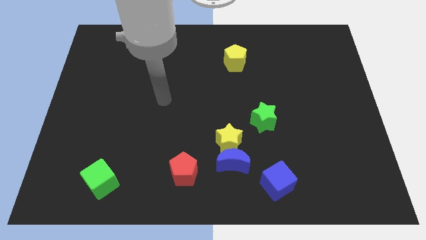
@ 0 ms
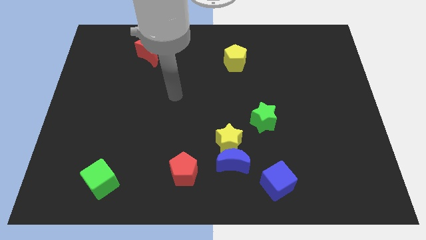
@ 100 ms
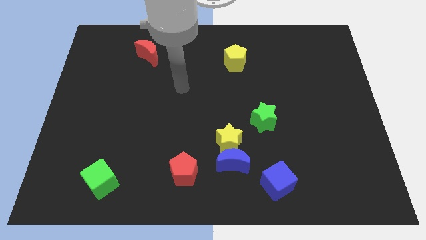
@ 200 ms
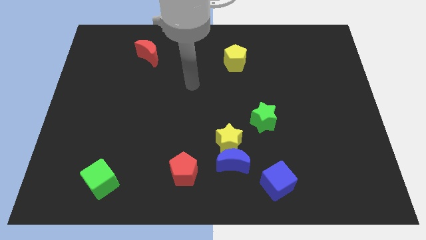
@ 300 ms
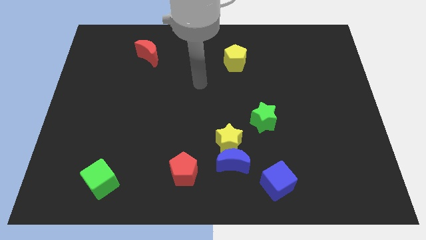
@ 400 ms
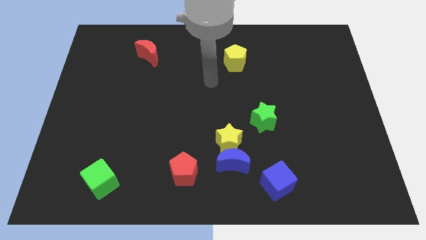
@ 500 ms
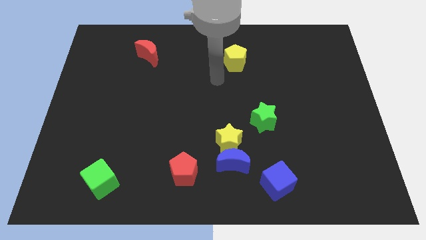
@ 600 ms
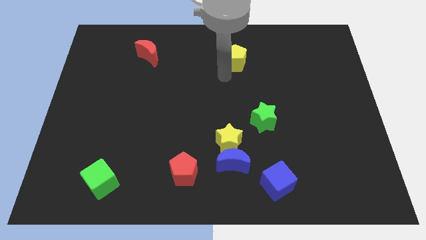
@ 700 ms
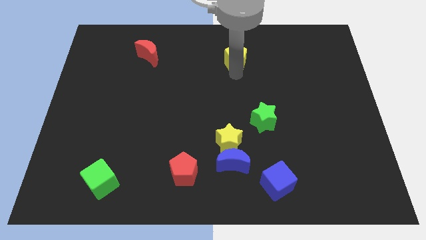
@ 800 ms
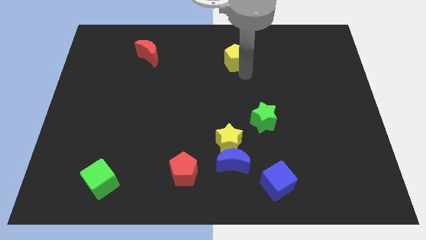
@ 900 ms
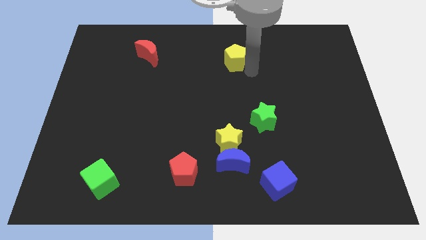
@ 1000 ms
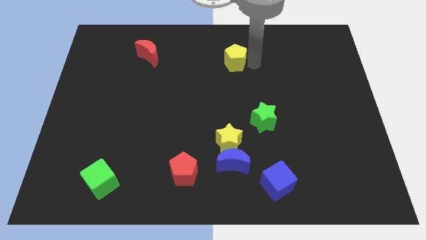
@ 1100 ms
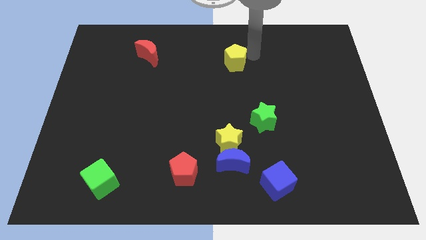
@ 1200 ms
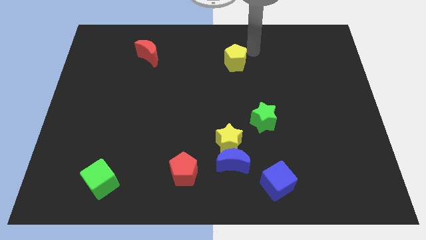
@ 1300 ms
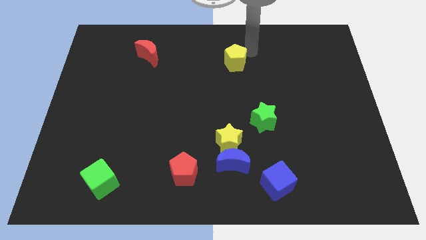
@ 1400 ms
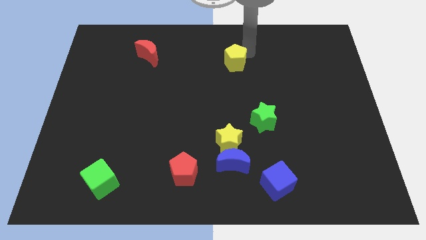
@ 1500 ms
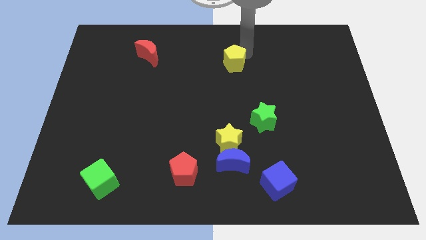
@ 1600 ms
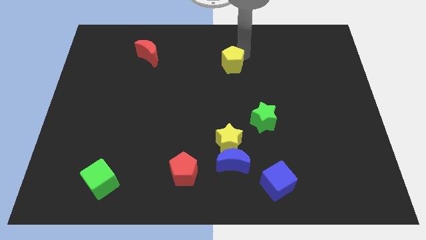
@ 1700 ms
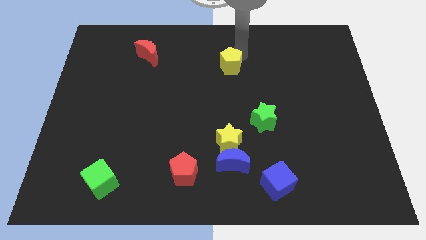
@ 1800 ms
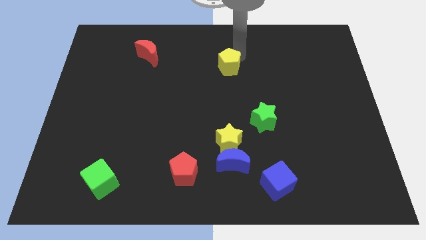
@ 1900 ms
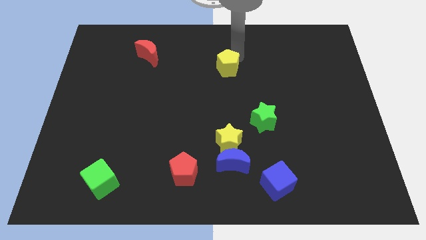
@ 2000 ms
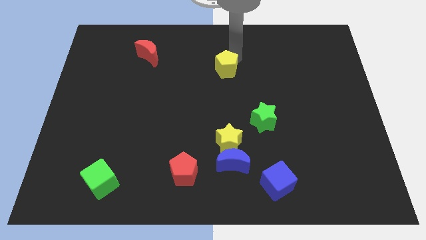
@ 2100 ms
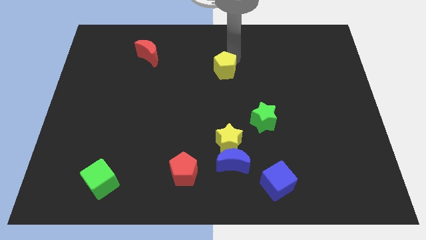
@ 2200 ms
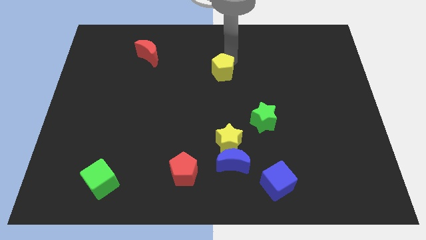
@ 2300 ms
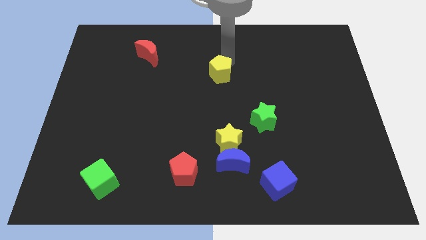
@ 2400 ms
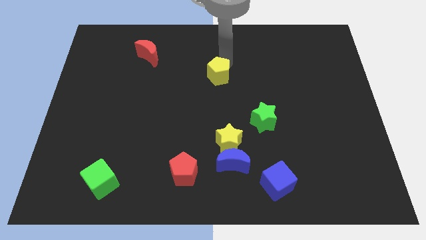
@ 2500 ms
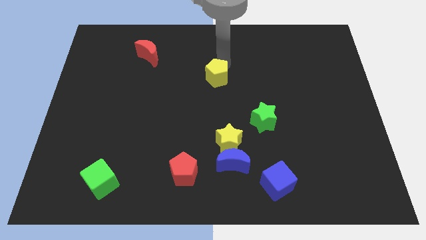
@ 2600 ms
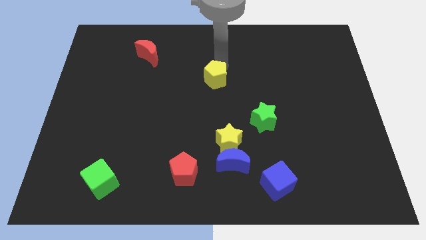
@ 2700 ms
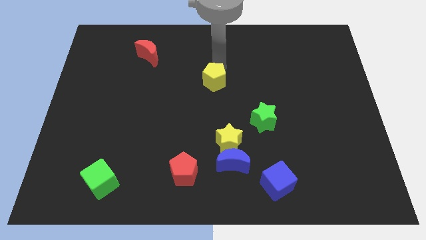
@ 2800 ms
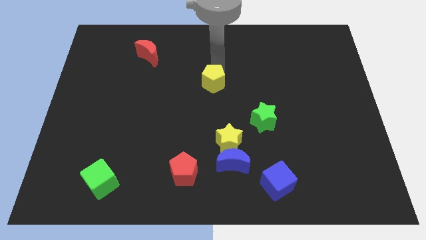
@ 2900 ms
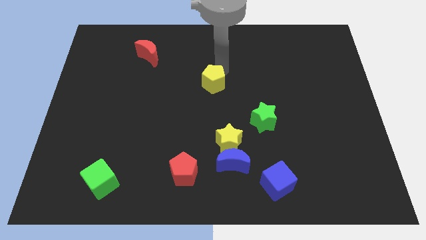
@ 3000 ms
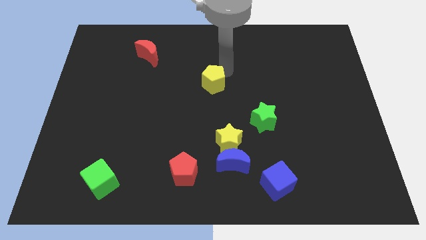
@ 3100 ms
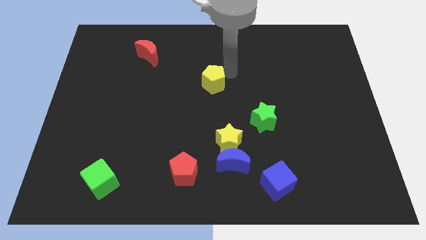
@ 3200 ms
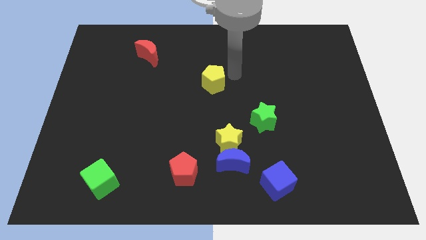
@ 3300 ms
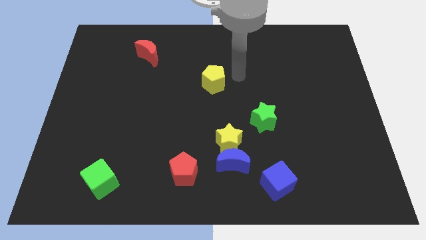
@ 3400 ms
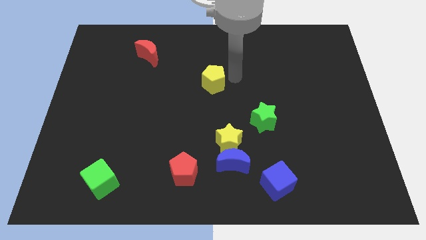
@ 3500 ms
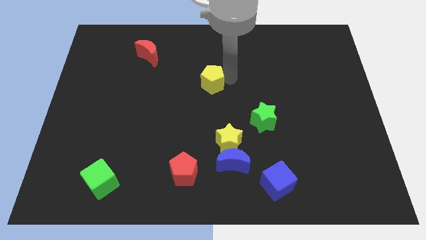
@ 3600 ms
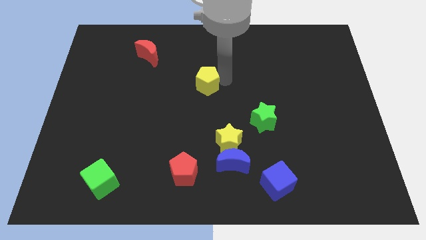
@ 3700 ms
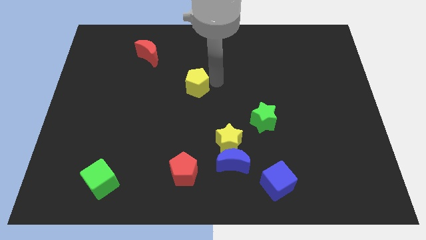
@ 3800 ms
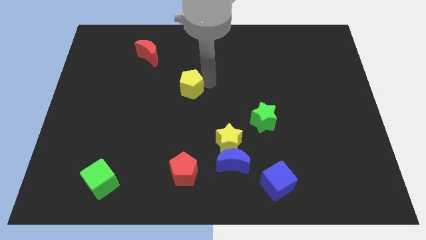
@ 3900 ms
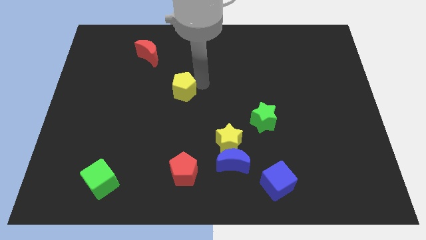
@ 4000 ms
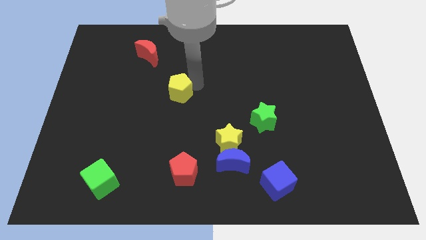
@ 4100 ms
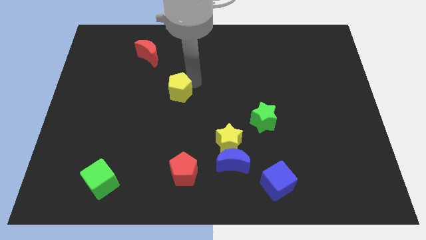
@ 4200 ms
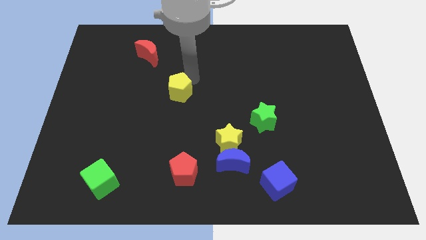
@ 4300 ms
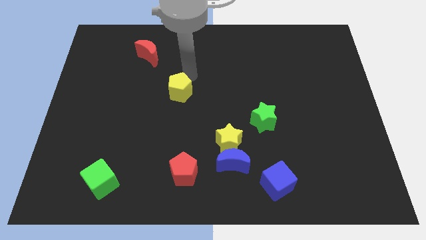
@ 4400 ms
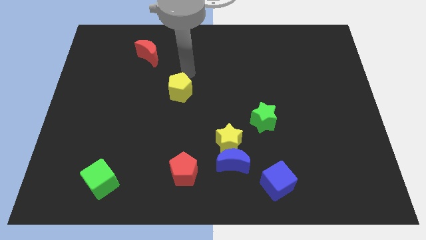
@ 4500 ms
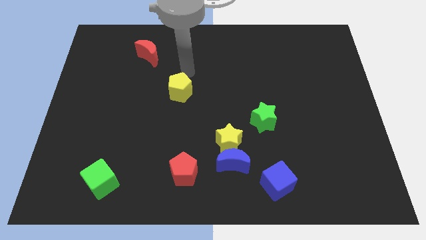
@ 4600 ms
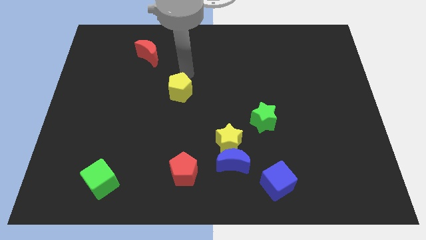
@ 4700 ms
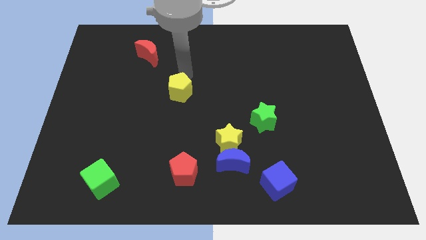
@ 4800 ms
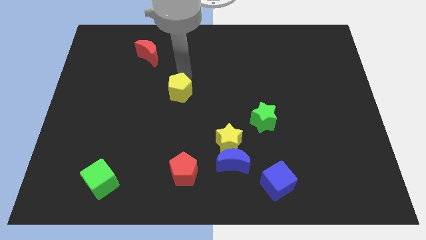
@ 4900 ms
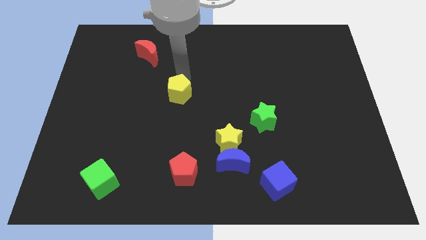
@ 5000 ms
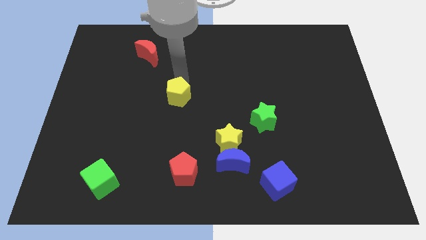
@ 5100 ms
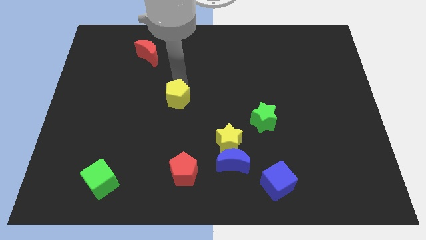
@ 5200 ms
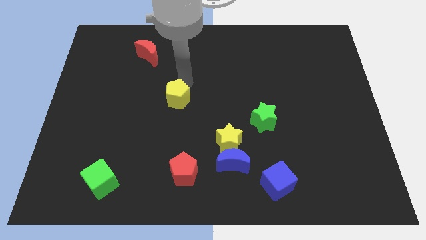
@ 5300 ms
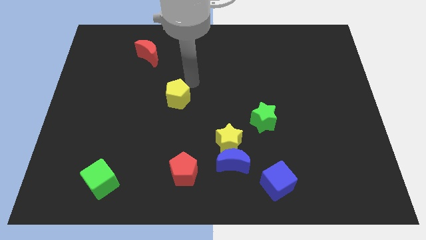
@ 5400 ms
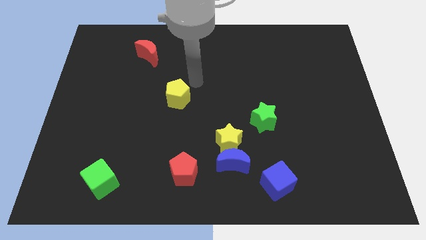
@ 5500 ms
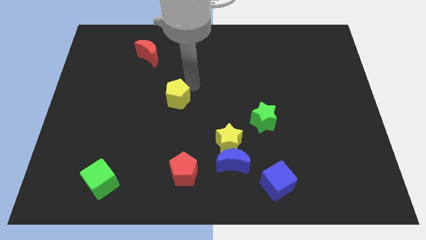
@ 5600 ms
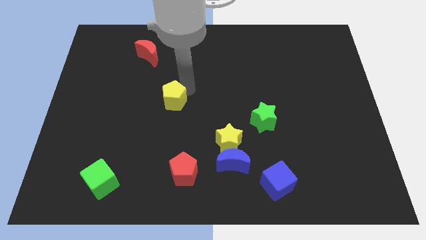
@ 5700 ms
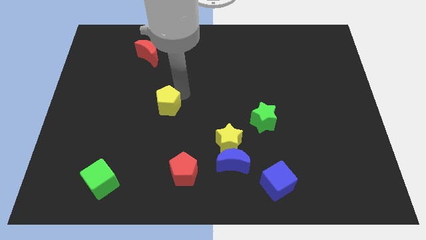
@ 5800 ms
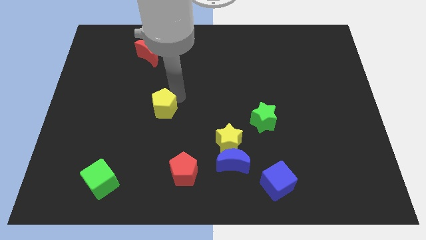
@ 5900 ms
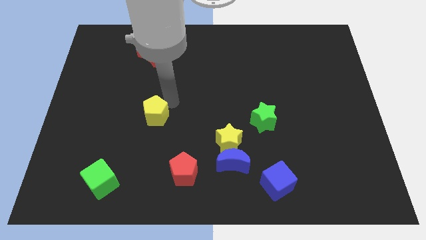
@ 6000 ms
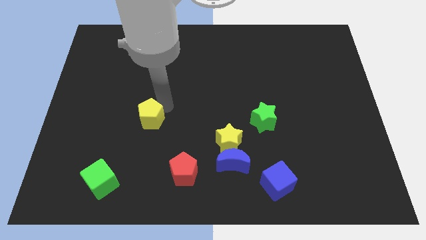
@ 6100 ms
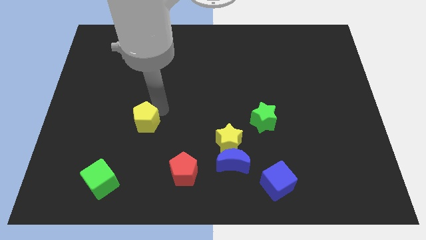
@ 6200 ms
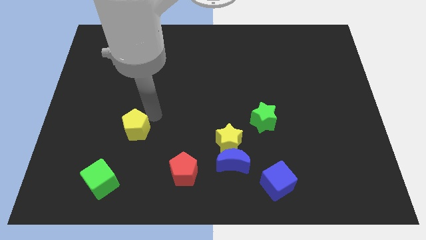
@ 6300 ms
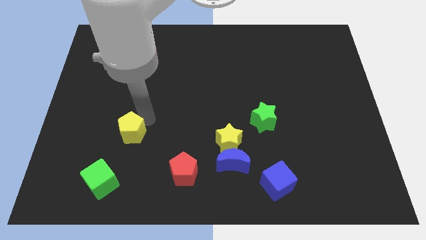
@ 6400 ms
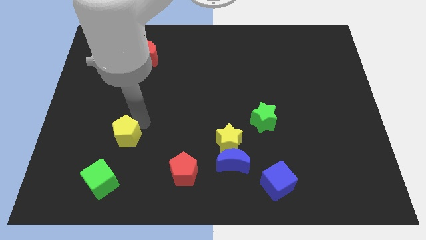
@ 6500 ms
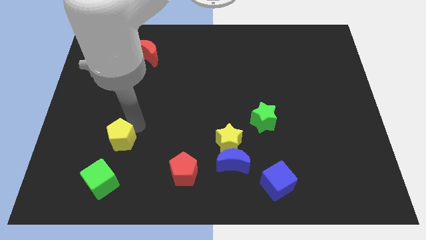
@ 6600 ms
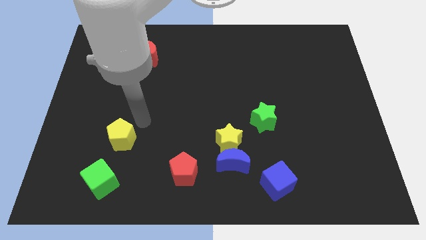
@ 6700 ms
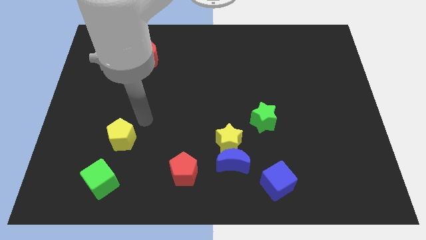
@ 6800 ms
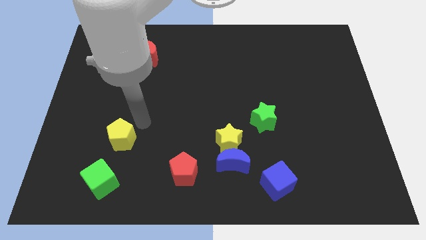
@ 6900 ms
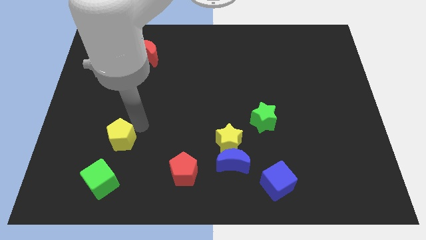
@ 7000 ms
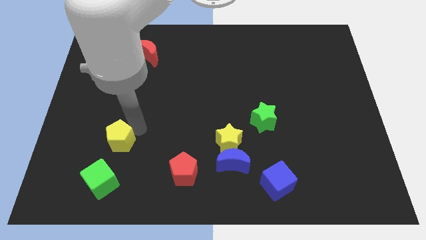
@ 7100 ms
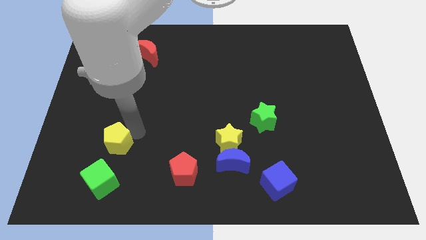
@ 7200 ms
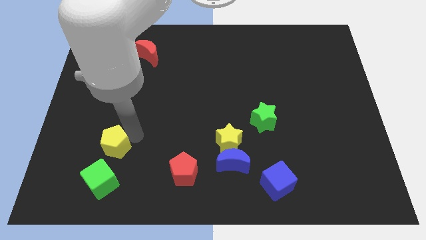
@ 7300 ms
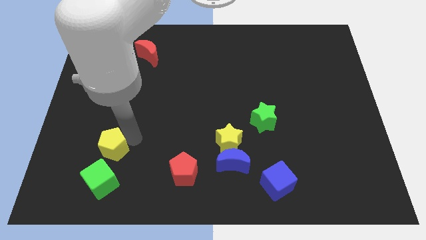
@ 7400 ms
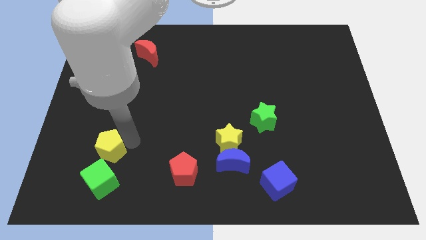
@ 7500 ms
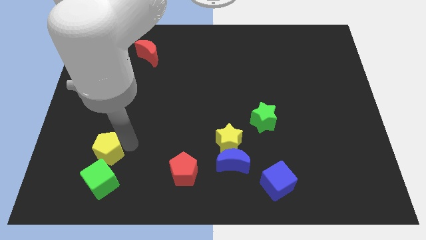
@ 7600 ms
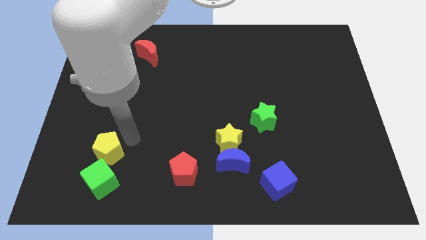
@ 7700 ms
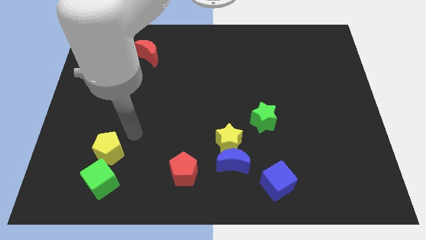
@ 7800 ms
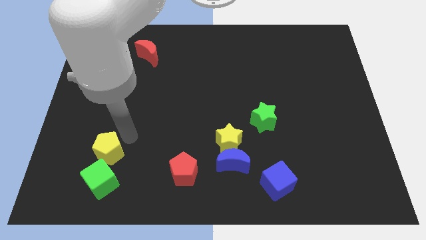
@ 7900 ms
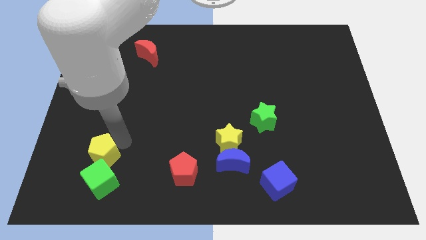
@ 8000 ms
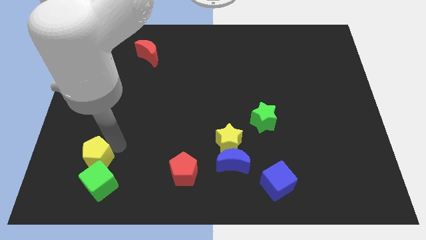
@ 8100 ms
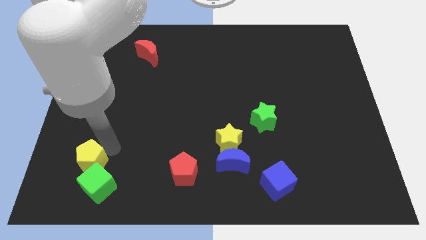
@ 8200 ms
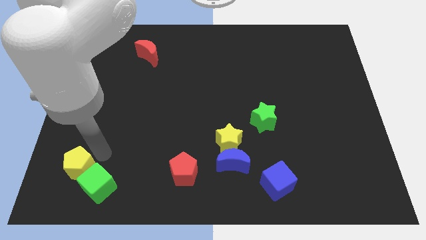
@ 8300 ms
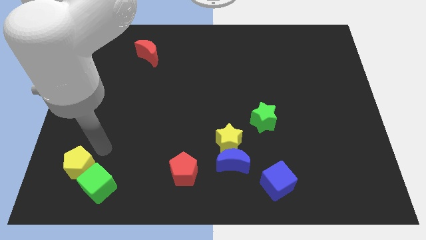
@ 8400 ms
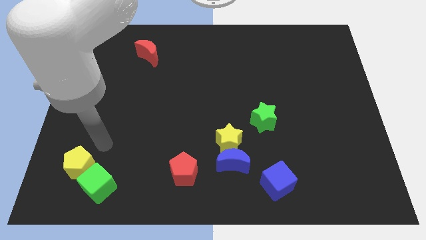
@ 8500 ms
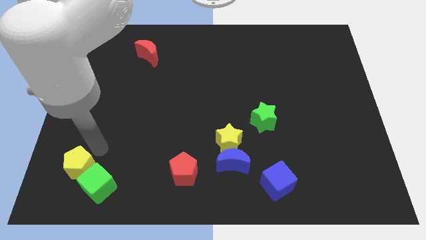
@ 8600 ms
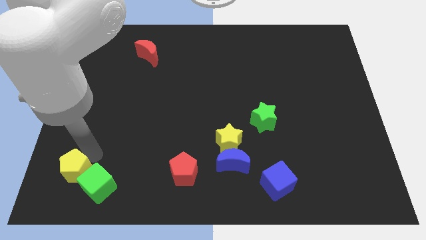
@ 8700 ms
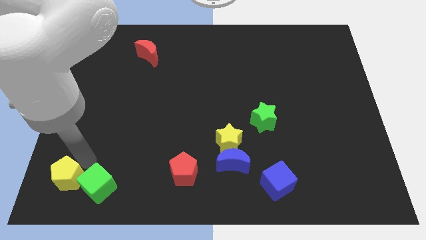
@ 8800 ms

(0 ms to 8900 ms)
push the yellow pentagon to the lower left corner
